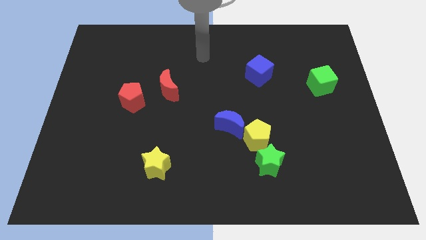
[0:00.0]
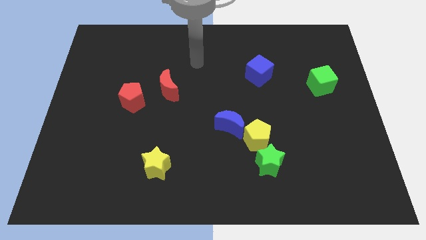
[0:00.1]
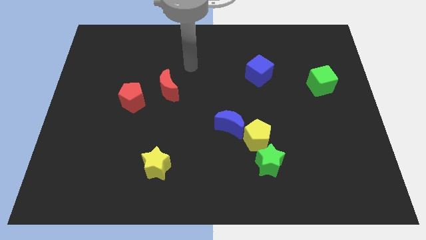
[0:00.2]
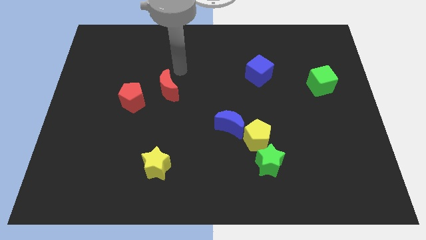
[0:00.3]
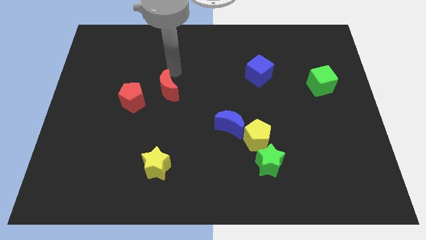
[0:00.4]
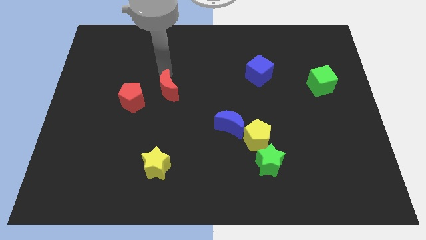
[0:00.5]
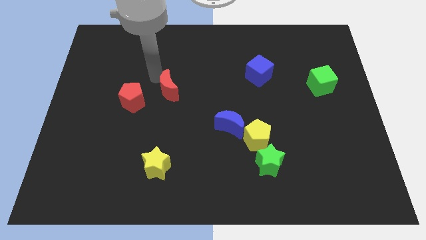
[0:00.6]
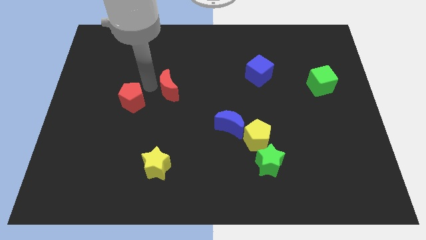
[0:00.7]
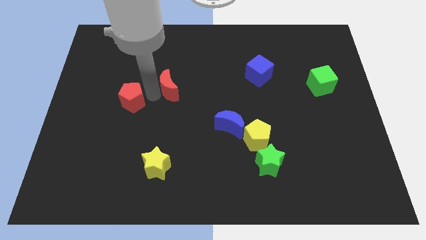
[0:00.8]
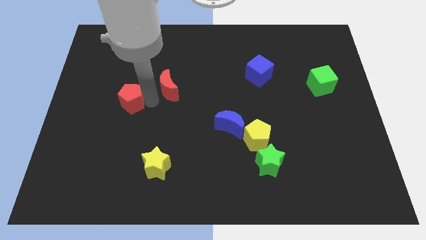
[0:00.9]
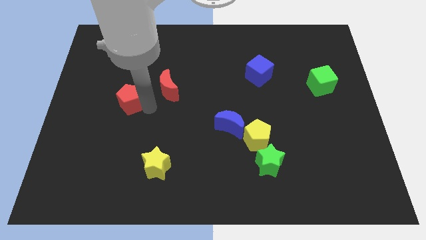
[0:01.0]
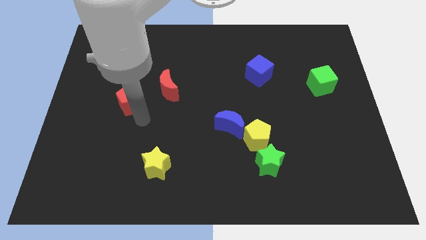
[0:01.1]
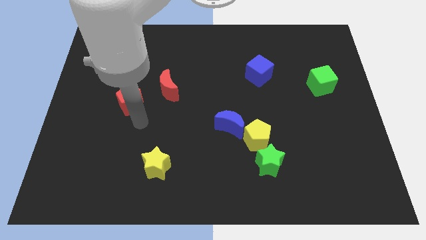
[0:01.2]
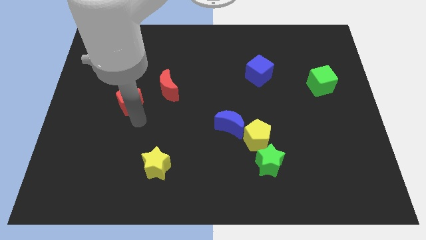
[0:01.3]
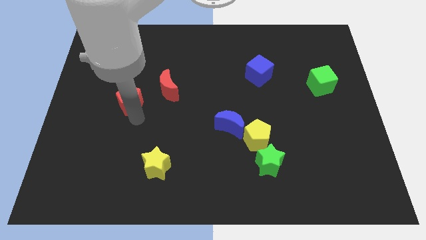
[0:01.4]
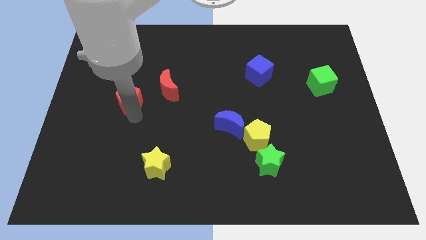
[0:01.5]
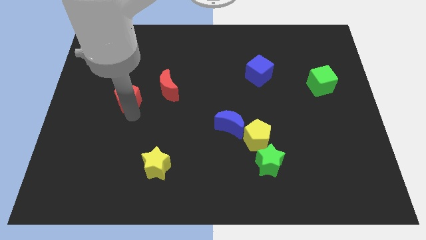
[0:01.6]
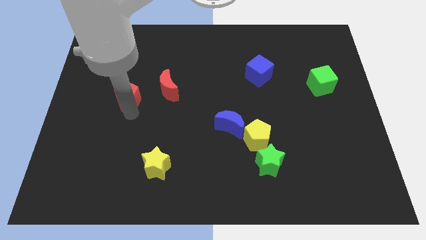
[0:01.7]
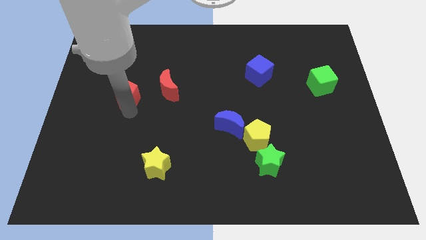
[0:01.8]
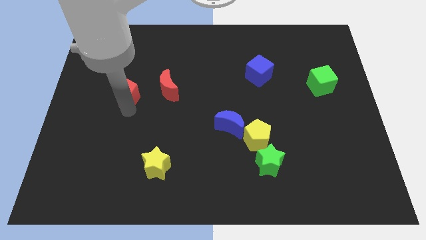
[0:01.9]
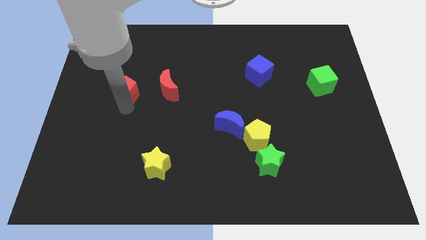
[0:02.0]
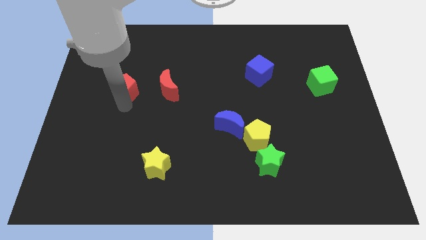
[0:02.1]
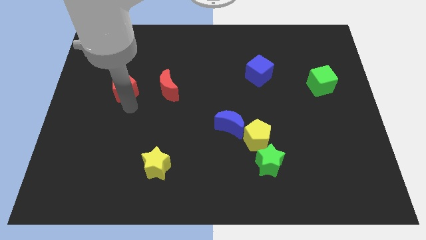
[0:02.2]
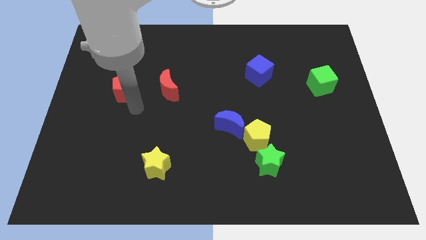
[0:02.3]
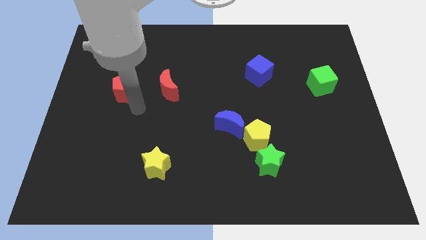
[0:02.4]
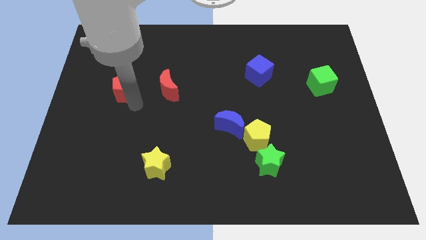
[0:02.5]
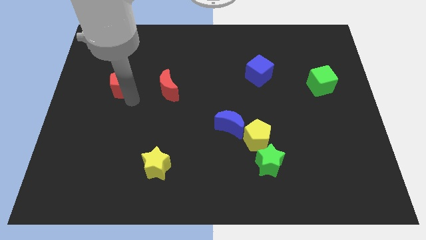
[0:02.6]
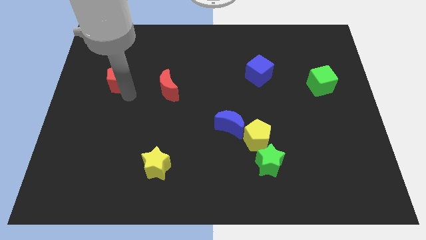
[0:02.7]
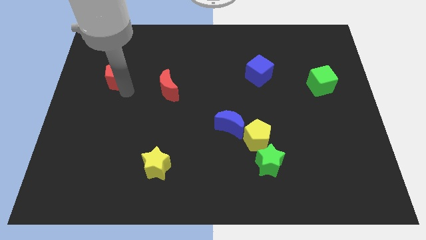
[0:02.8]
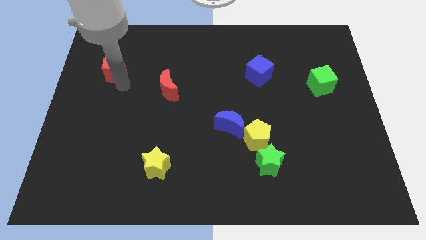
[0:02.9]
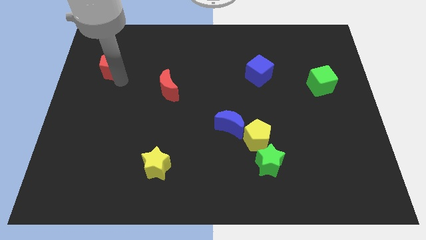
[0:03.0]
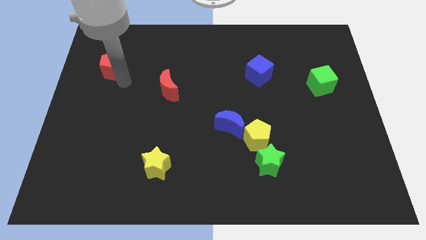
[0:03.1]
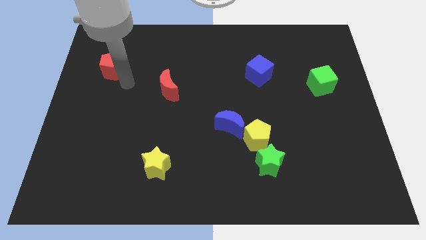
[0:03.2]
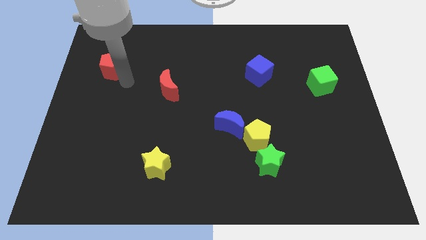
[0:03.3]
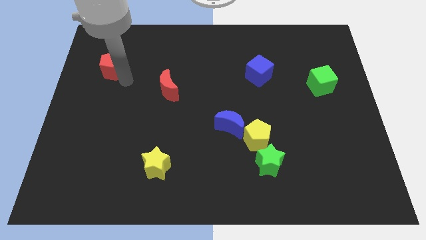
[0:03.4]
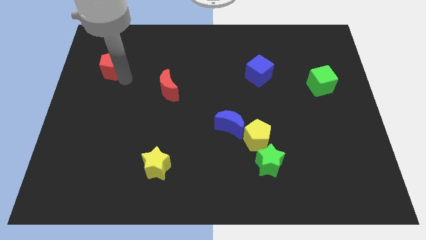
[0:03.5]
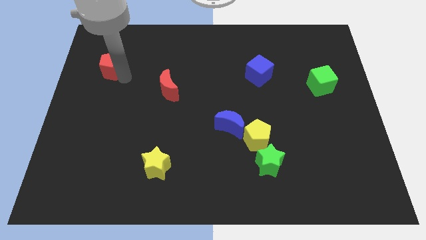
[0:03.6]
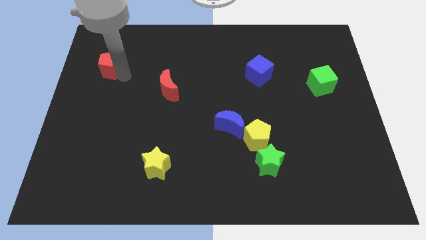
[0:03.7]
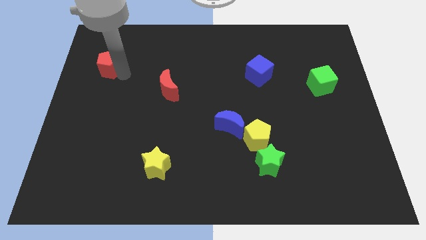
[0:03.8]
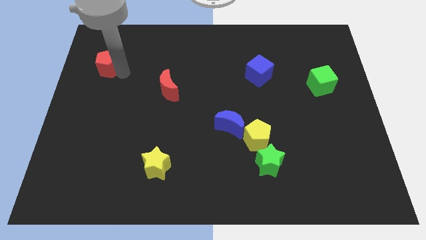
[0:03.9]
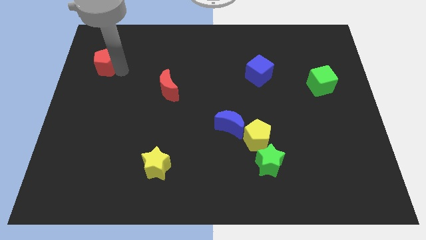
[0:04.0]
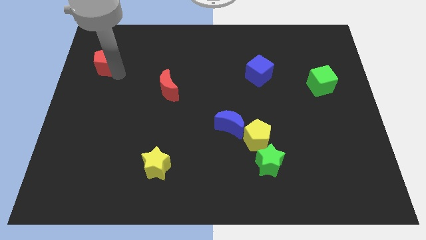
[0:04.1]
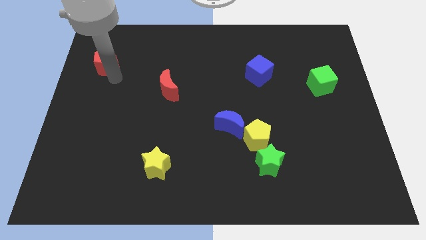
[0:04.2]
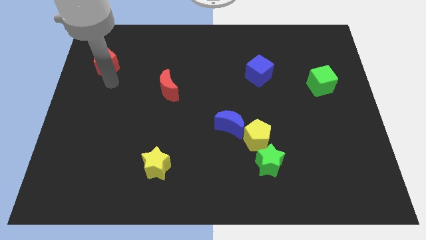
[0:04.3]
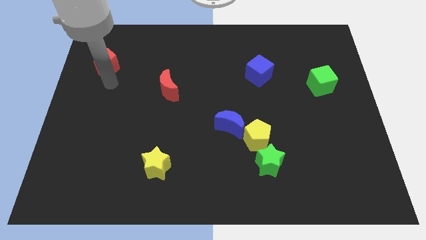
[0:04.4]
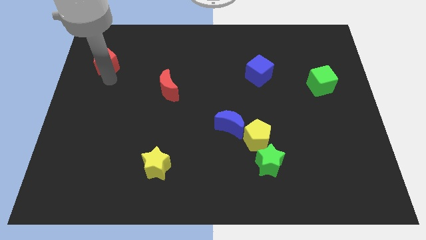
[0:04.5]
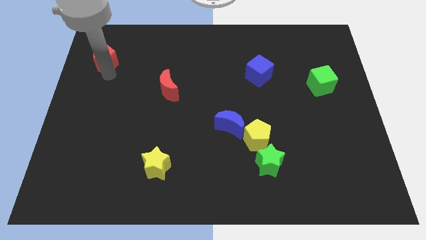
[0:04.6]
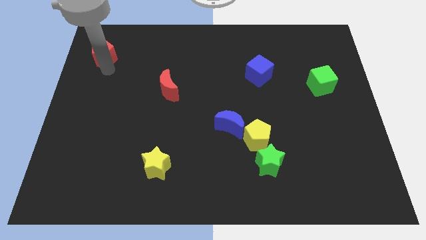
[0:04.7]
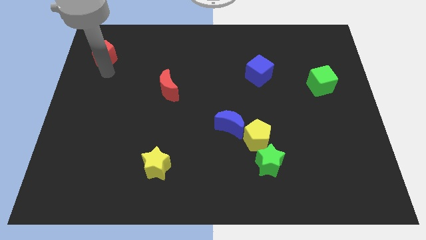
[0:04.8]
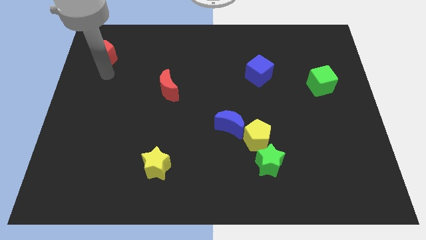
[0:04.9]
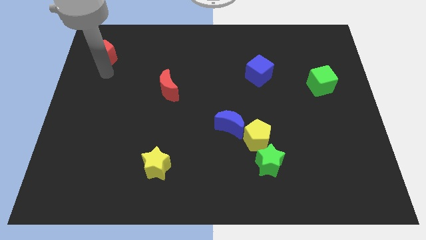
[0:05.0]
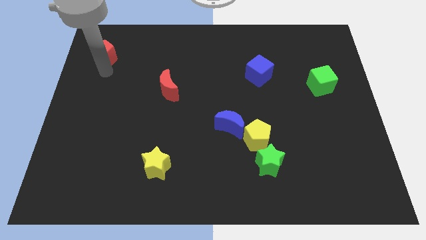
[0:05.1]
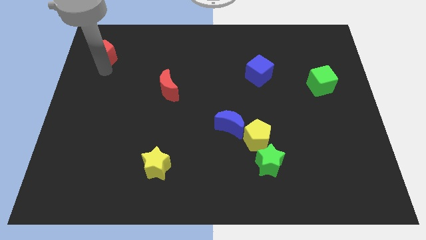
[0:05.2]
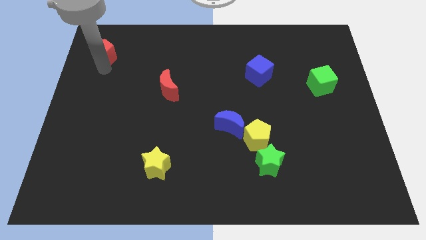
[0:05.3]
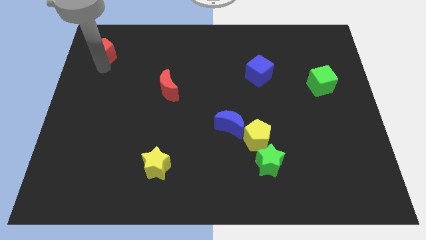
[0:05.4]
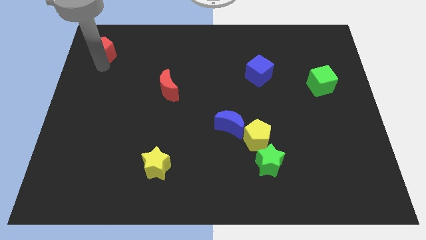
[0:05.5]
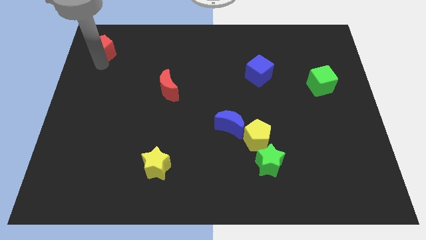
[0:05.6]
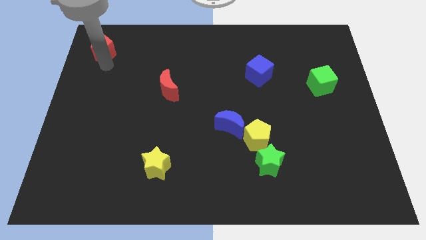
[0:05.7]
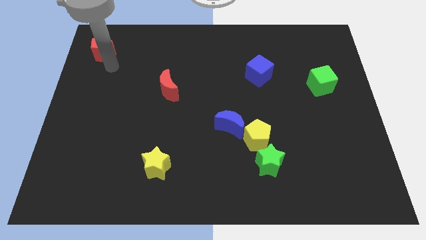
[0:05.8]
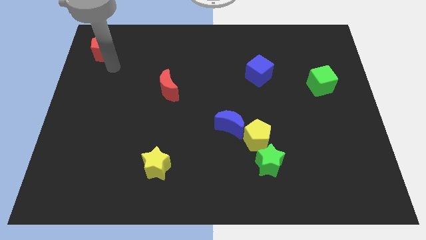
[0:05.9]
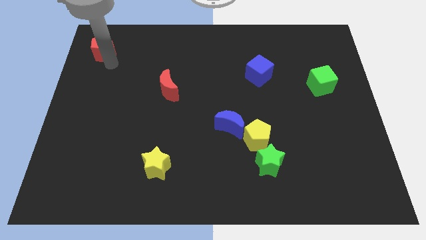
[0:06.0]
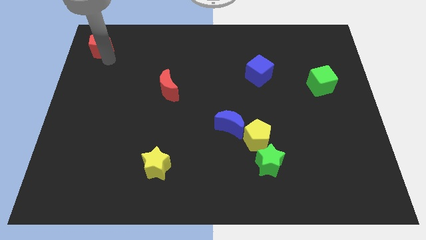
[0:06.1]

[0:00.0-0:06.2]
move the red pentagon to the top left

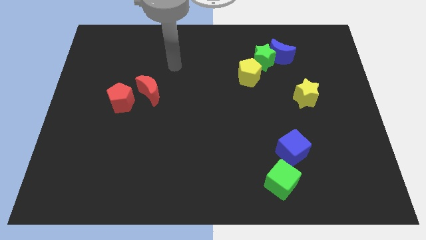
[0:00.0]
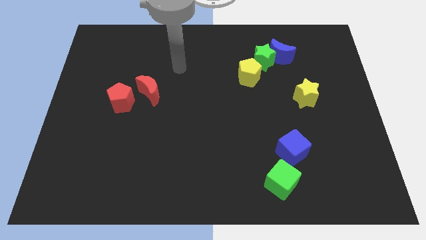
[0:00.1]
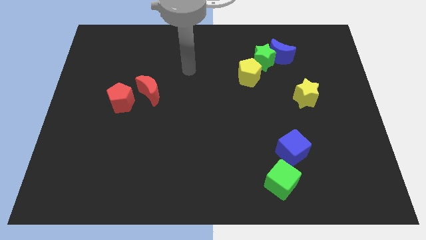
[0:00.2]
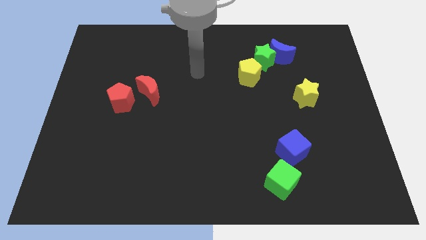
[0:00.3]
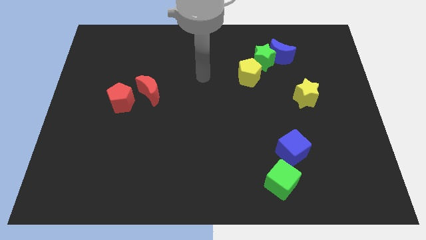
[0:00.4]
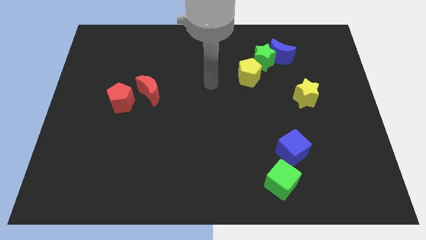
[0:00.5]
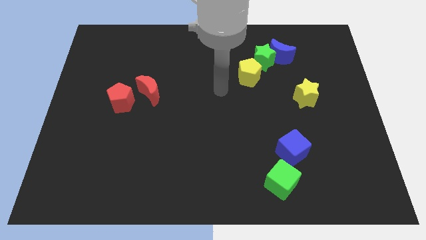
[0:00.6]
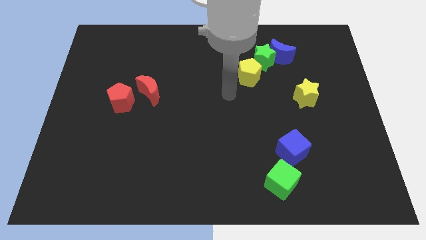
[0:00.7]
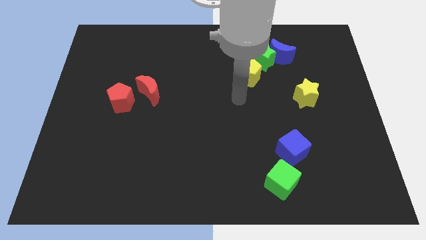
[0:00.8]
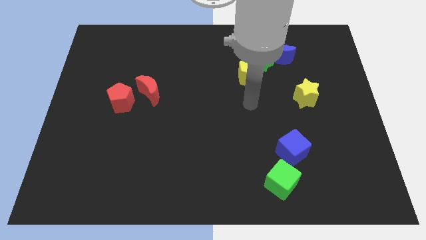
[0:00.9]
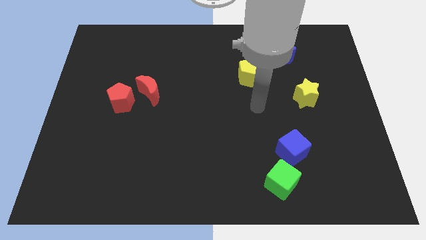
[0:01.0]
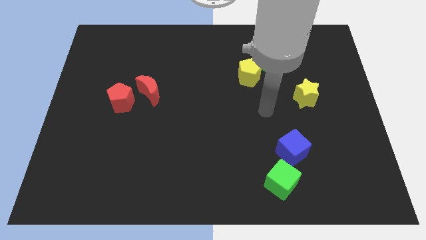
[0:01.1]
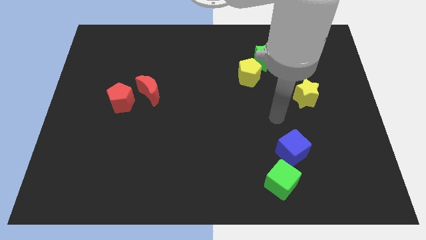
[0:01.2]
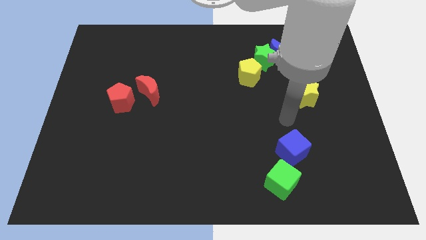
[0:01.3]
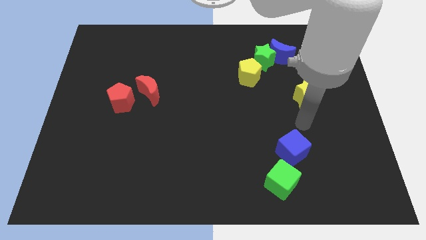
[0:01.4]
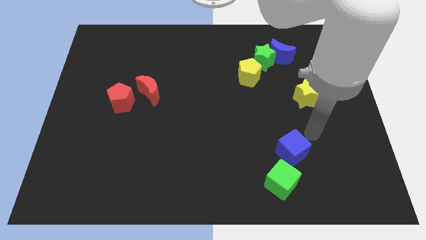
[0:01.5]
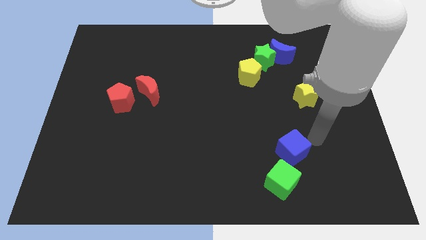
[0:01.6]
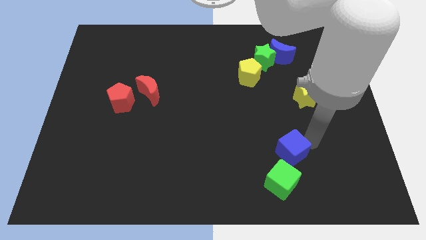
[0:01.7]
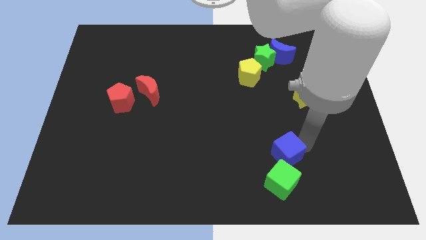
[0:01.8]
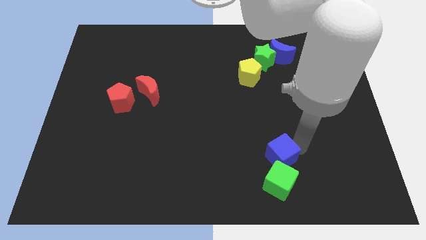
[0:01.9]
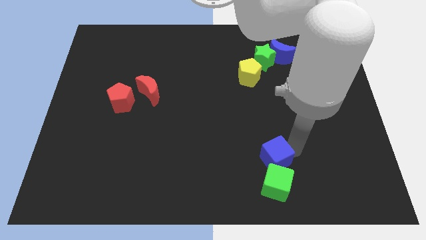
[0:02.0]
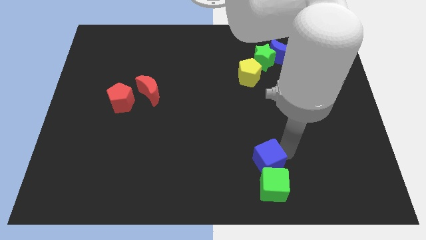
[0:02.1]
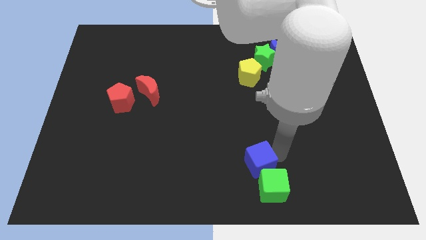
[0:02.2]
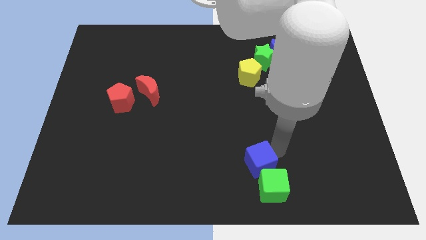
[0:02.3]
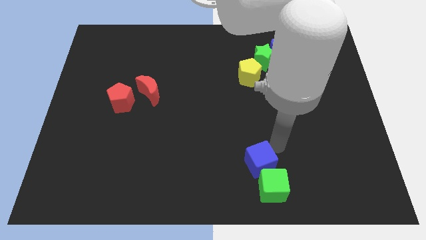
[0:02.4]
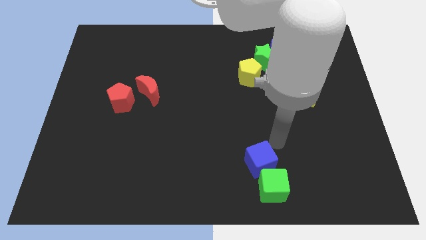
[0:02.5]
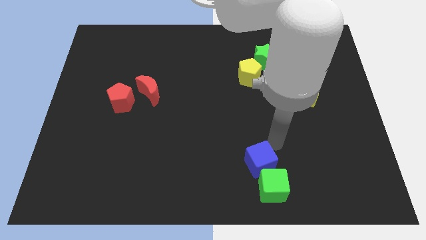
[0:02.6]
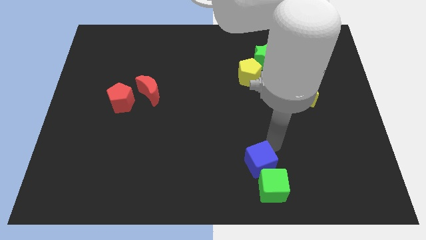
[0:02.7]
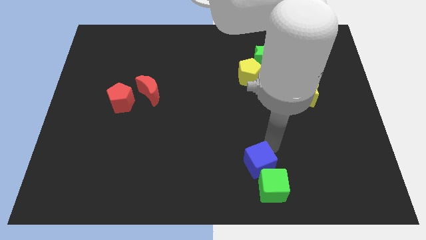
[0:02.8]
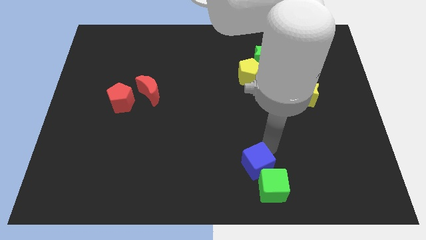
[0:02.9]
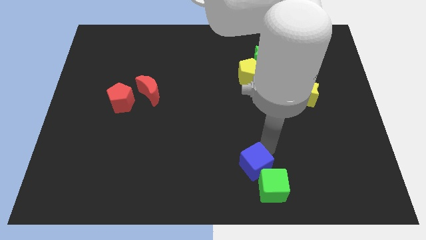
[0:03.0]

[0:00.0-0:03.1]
push the blue cube to the bottom side
